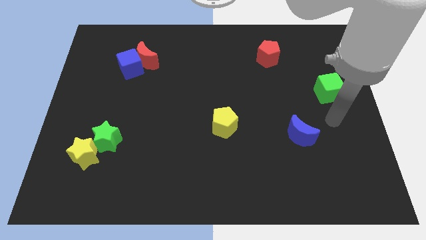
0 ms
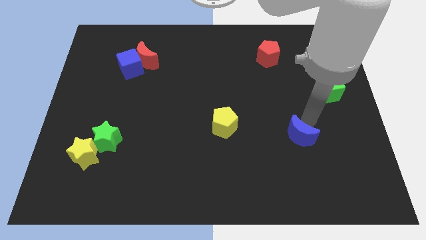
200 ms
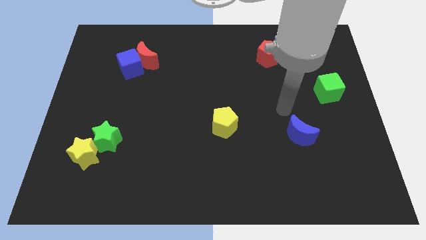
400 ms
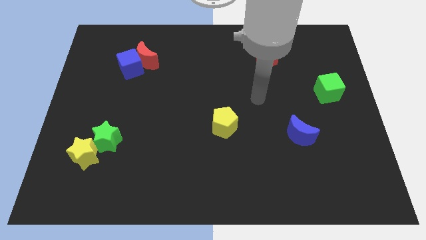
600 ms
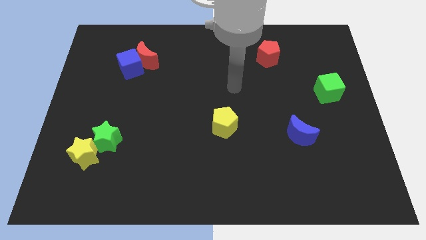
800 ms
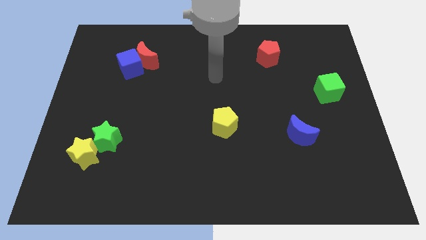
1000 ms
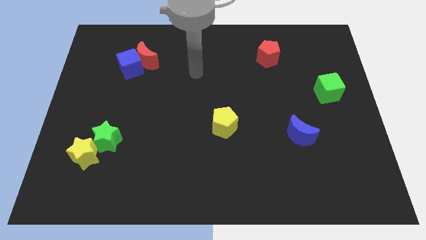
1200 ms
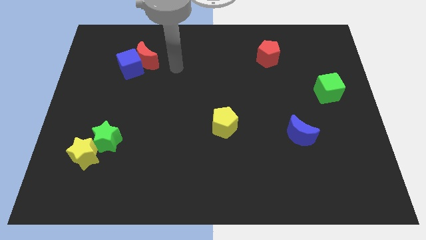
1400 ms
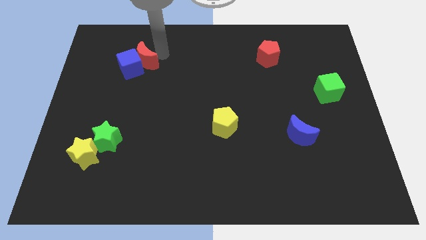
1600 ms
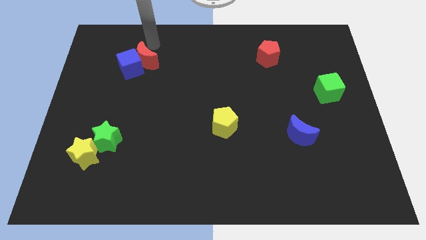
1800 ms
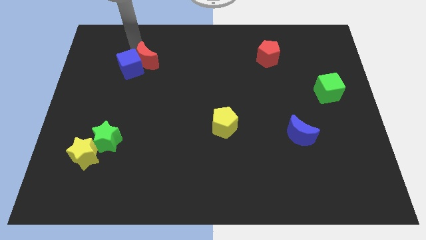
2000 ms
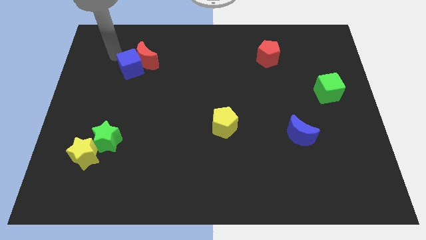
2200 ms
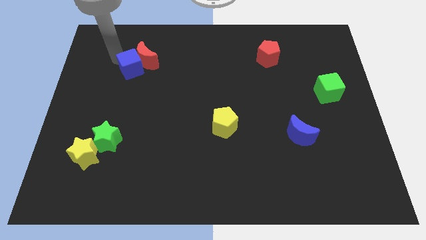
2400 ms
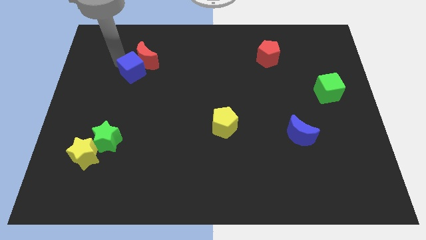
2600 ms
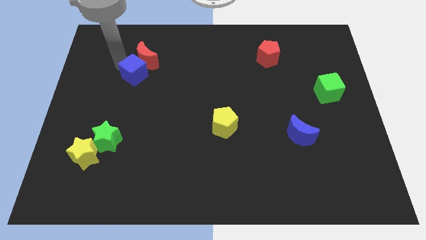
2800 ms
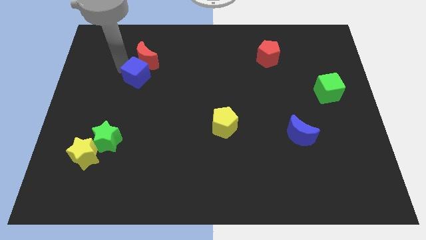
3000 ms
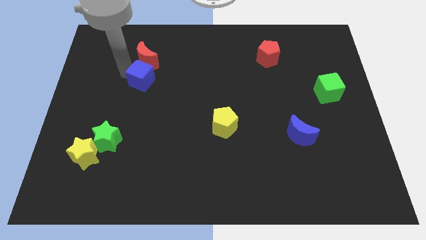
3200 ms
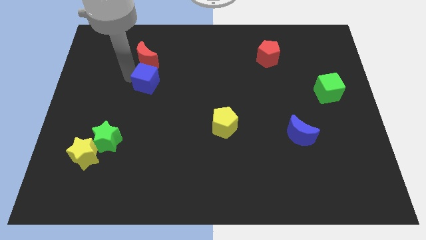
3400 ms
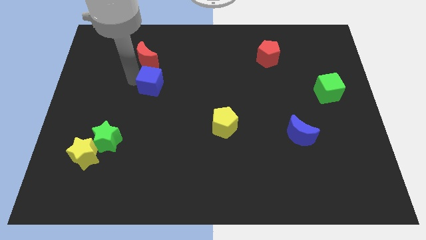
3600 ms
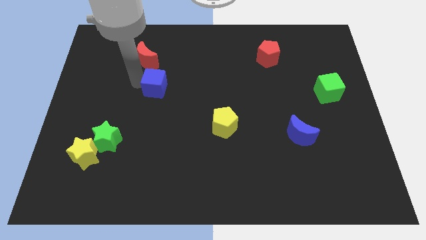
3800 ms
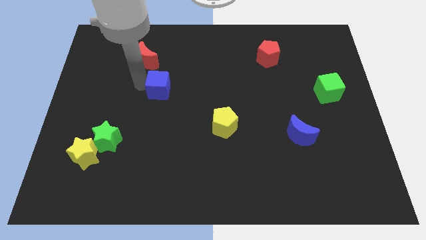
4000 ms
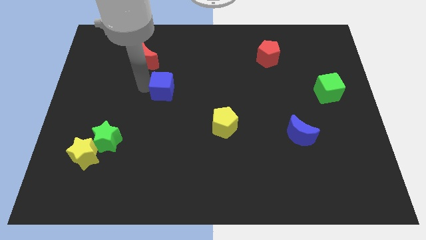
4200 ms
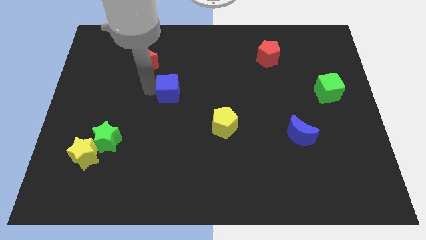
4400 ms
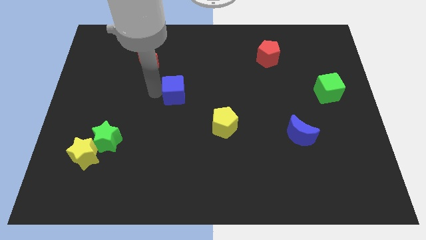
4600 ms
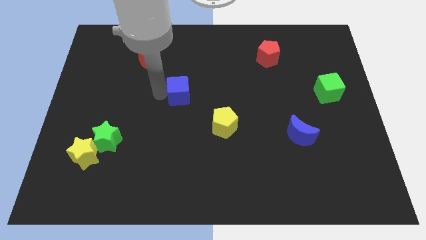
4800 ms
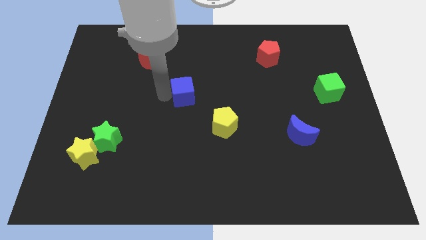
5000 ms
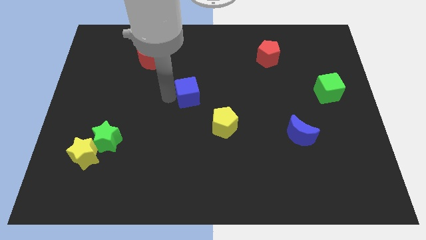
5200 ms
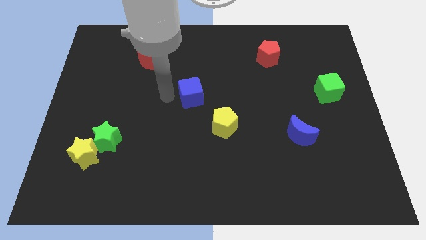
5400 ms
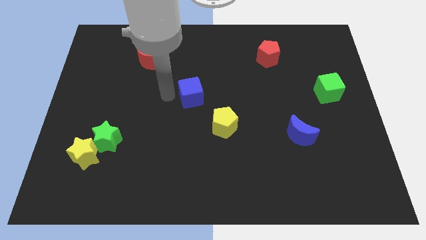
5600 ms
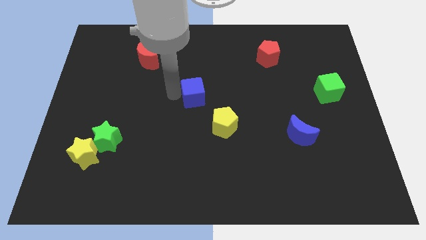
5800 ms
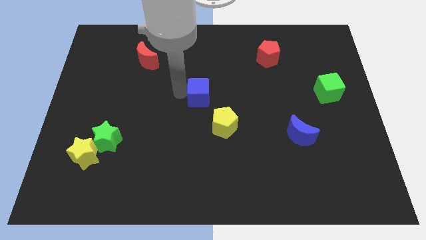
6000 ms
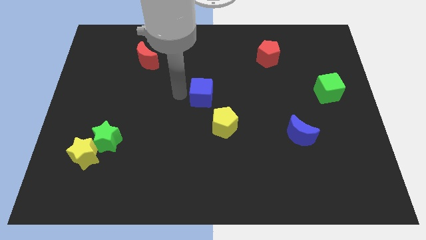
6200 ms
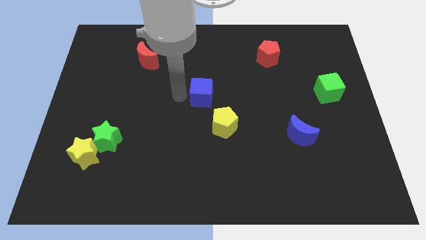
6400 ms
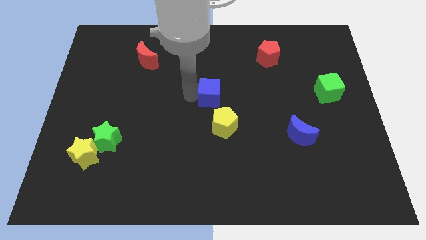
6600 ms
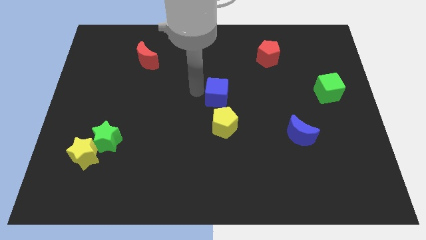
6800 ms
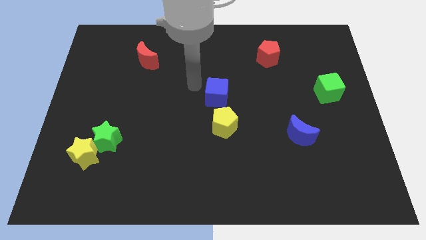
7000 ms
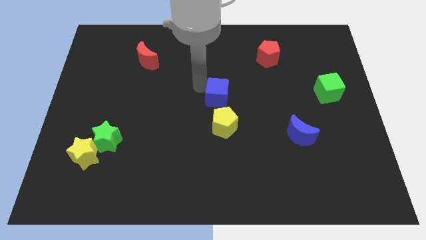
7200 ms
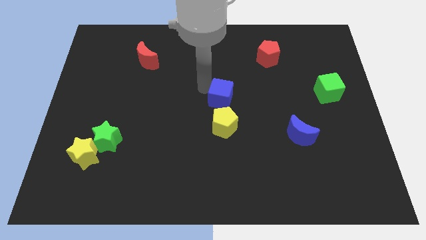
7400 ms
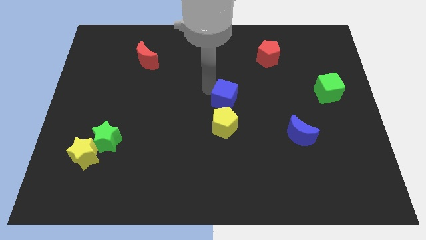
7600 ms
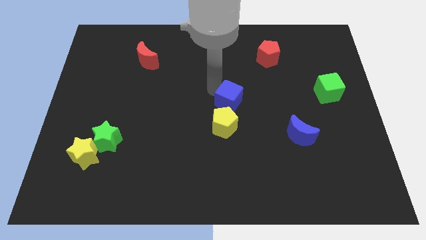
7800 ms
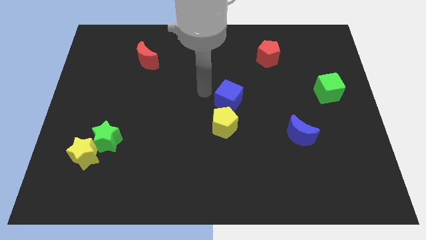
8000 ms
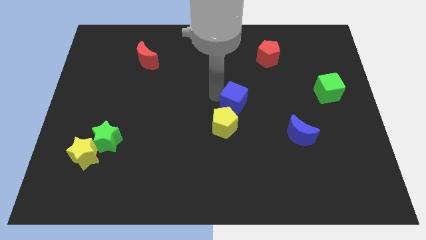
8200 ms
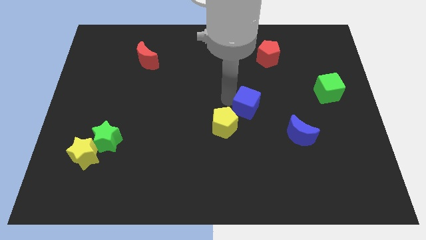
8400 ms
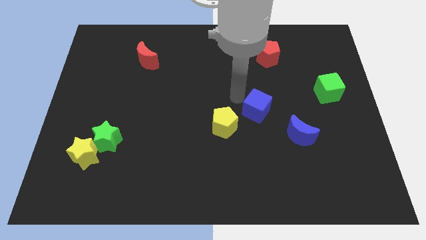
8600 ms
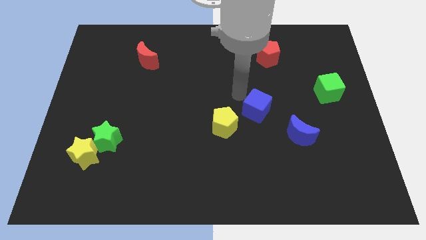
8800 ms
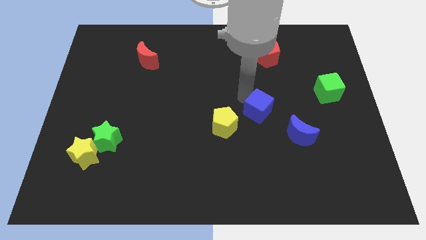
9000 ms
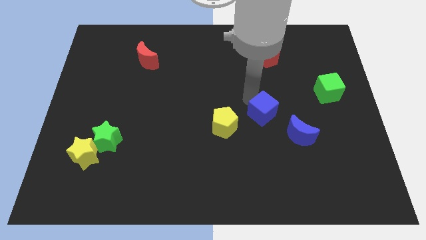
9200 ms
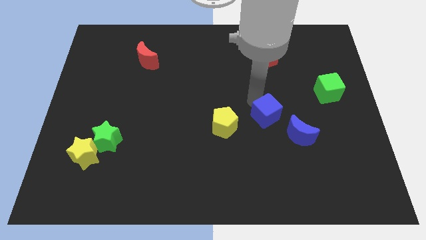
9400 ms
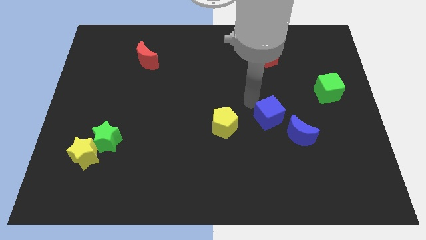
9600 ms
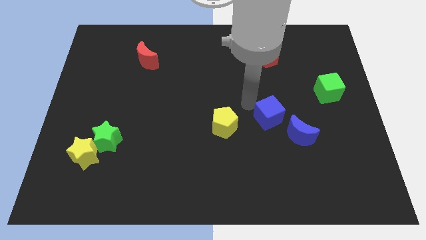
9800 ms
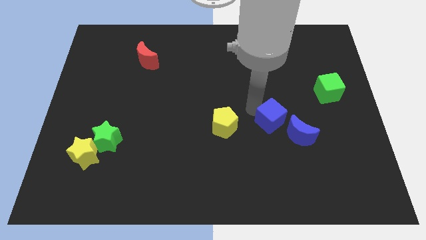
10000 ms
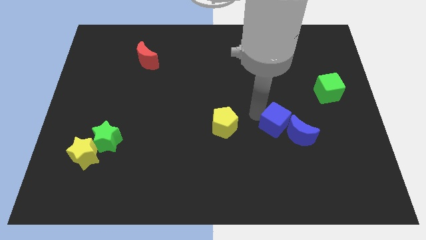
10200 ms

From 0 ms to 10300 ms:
move the blue cube towards the blue moon
